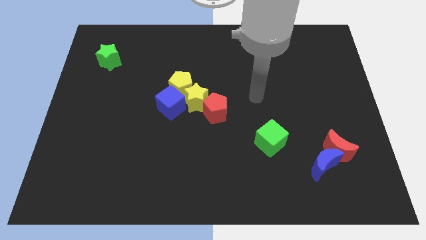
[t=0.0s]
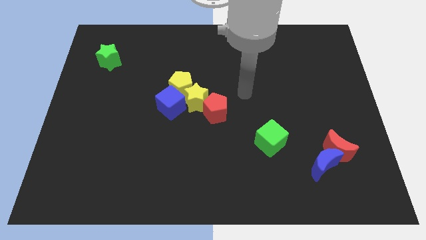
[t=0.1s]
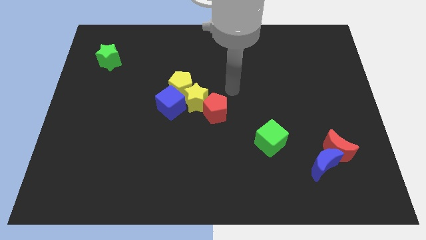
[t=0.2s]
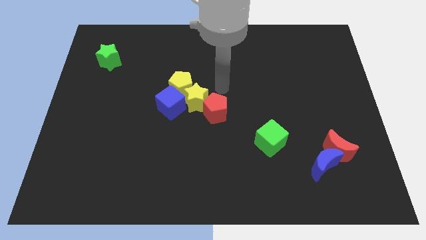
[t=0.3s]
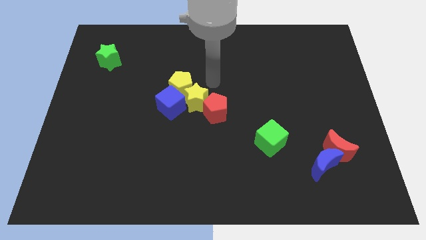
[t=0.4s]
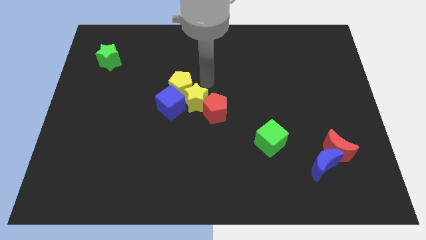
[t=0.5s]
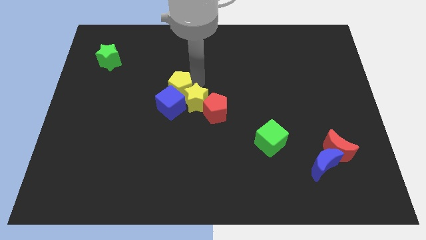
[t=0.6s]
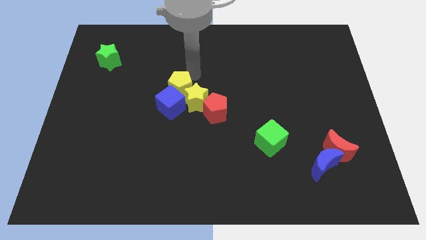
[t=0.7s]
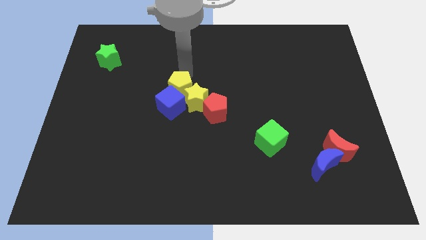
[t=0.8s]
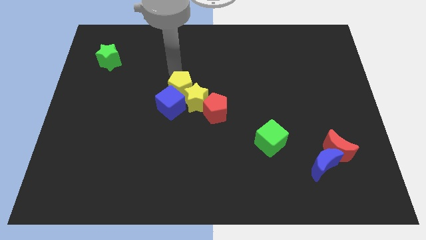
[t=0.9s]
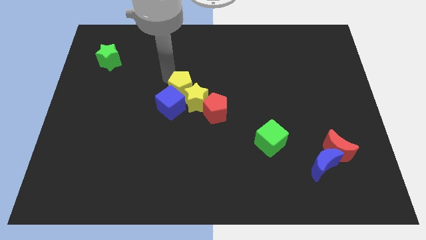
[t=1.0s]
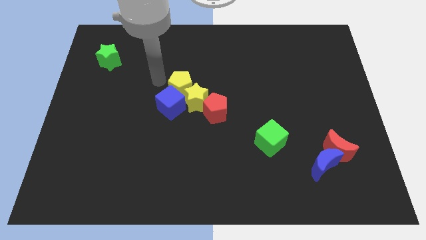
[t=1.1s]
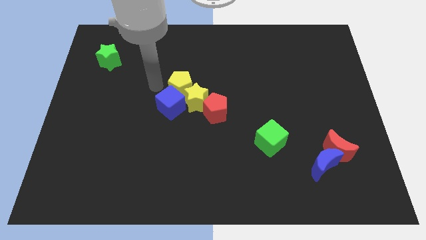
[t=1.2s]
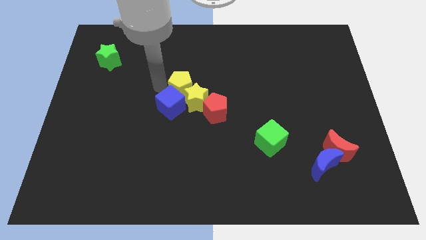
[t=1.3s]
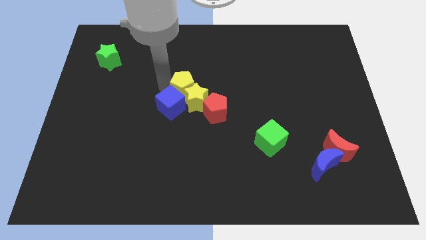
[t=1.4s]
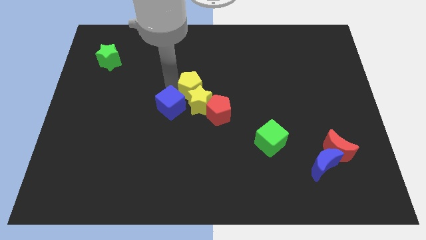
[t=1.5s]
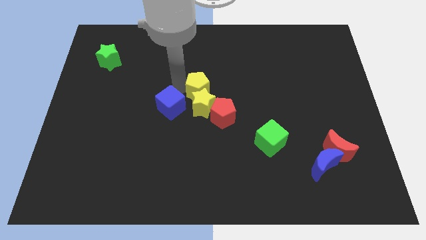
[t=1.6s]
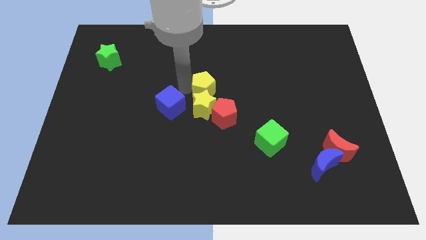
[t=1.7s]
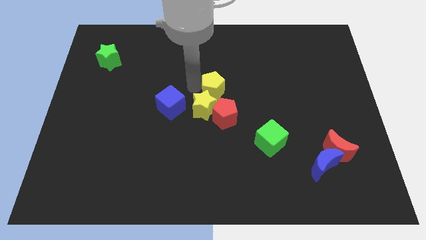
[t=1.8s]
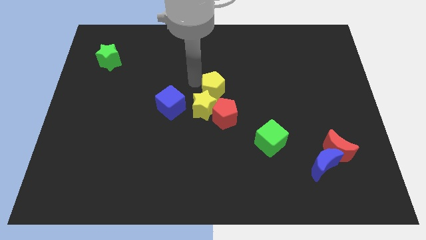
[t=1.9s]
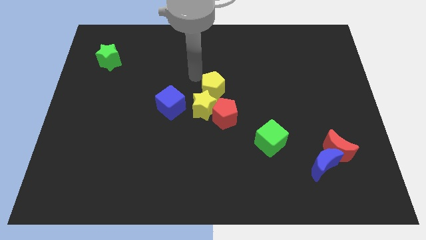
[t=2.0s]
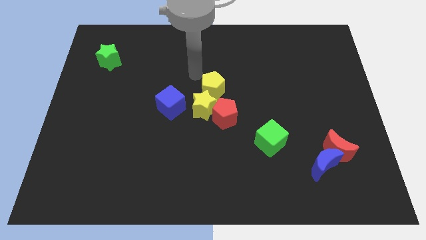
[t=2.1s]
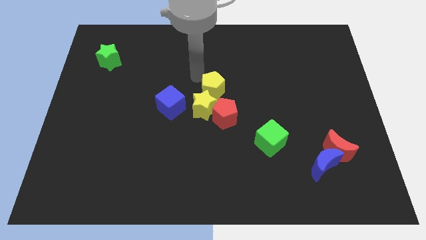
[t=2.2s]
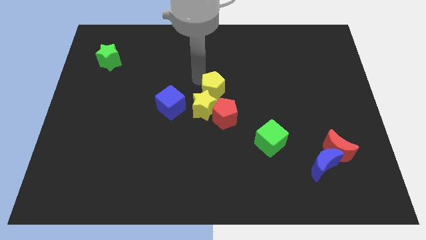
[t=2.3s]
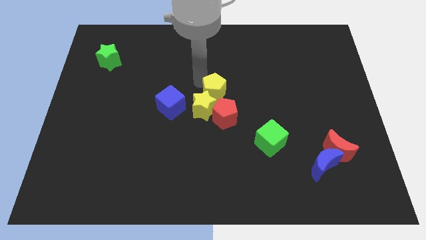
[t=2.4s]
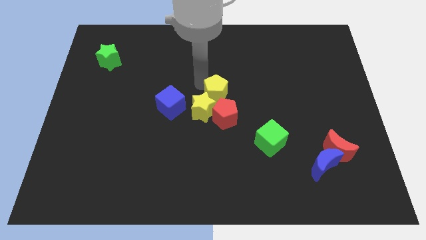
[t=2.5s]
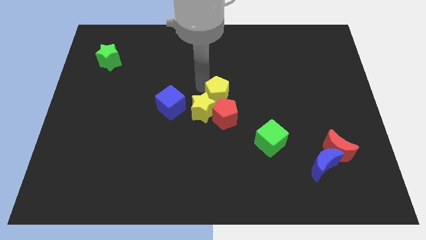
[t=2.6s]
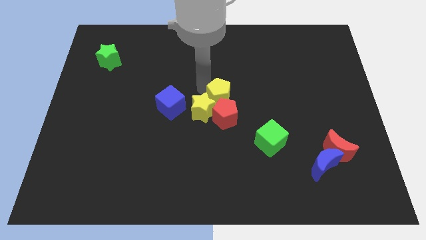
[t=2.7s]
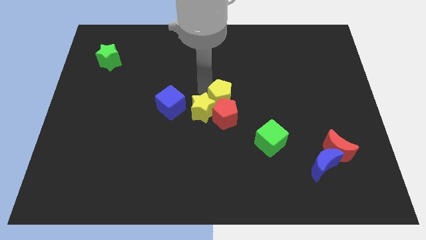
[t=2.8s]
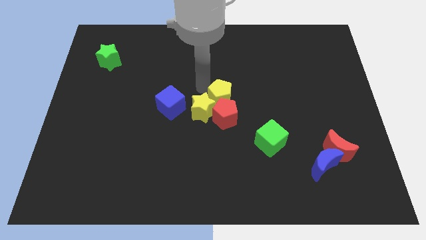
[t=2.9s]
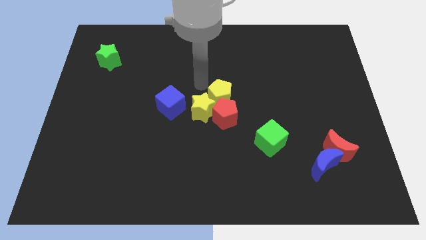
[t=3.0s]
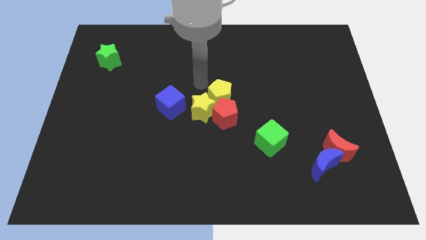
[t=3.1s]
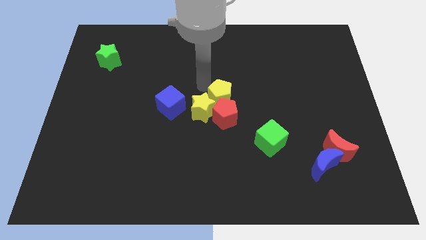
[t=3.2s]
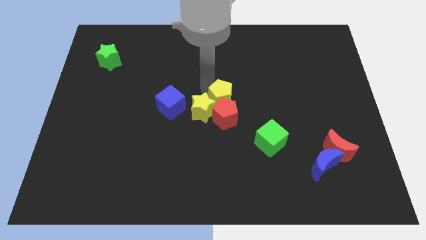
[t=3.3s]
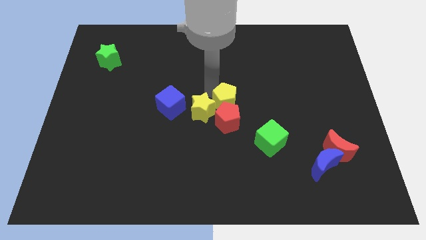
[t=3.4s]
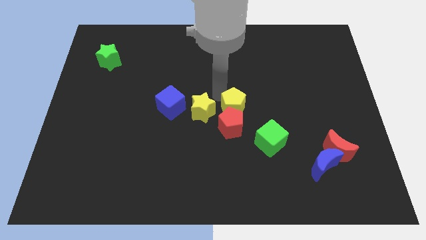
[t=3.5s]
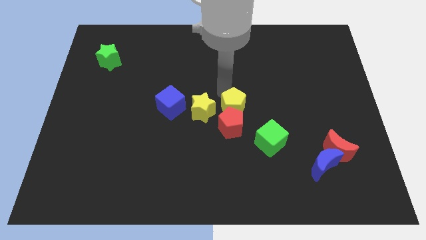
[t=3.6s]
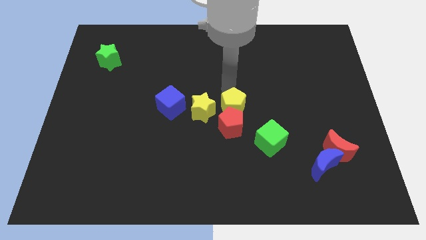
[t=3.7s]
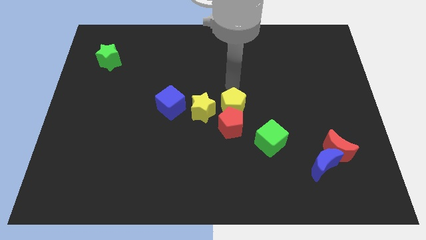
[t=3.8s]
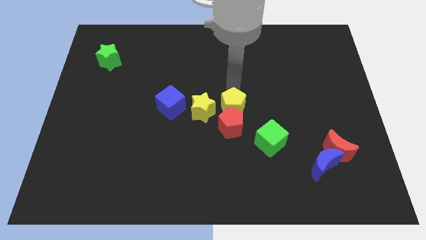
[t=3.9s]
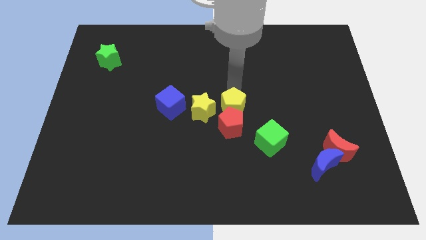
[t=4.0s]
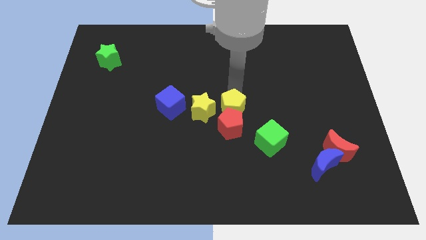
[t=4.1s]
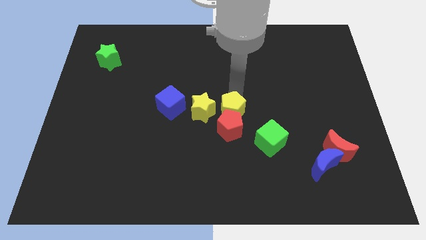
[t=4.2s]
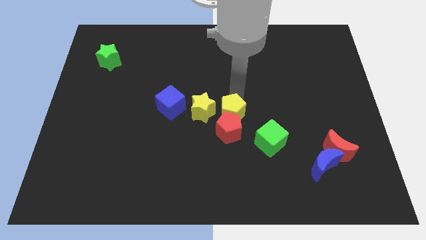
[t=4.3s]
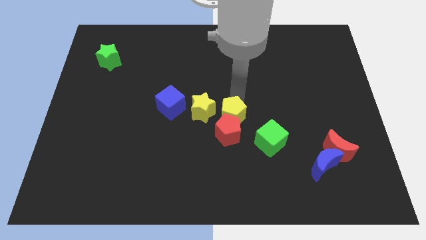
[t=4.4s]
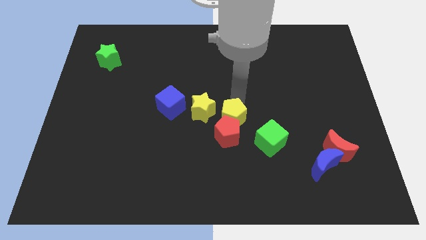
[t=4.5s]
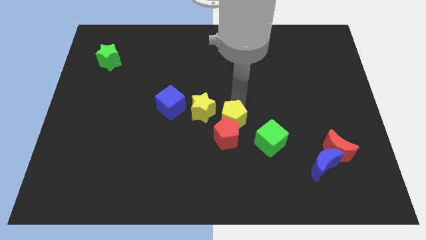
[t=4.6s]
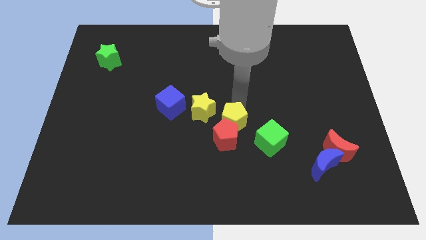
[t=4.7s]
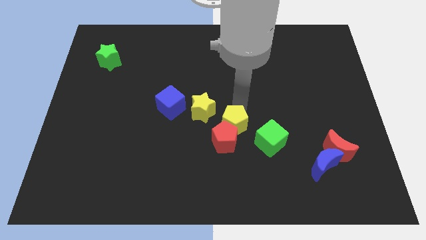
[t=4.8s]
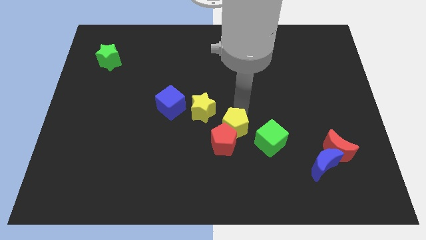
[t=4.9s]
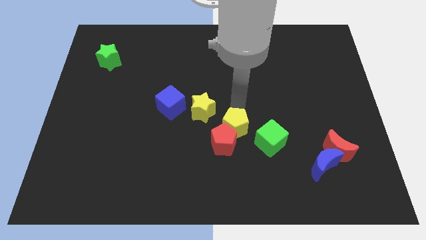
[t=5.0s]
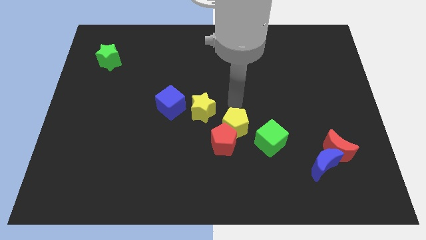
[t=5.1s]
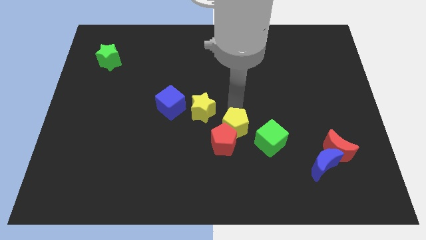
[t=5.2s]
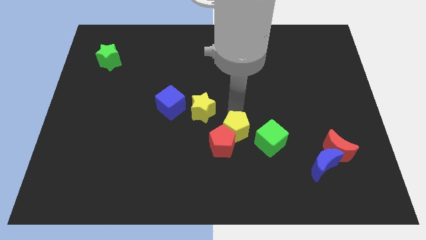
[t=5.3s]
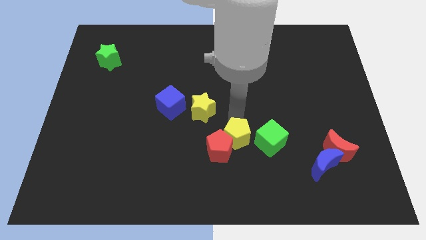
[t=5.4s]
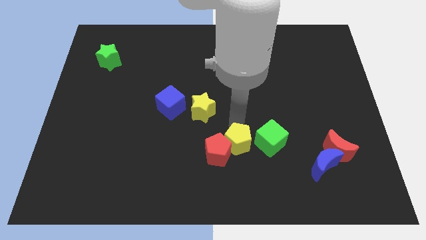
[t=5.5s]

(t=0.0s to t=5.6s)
push the yellow pentagon down and then right

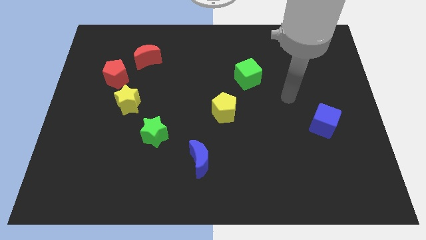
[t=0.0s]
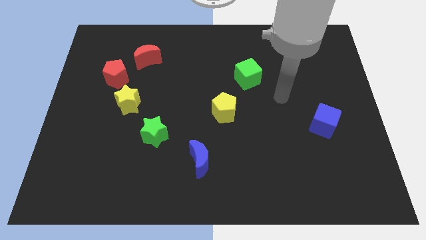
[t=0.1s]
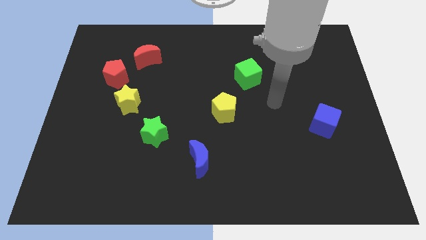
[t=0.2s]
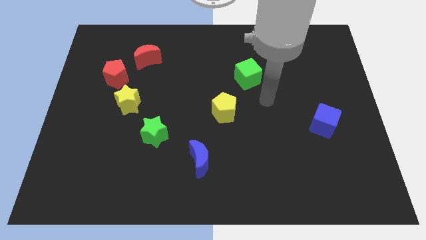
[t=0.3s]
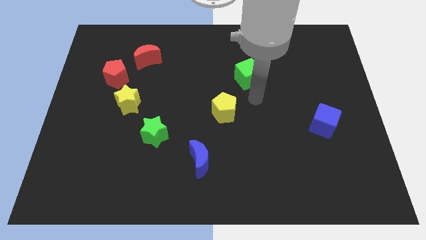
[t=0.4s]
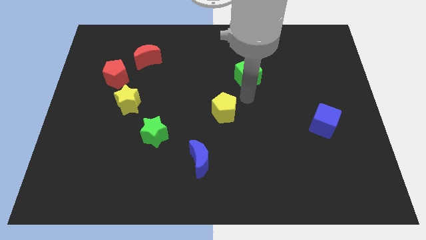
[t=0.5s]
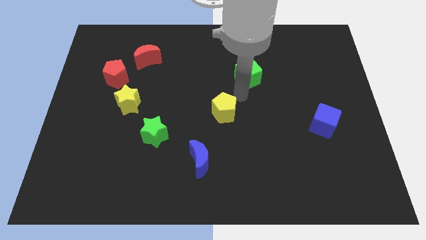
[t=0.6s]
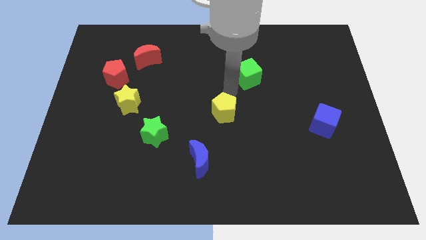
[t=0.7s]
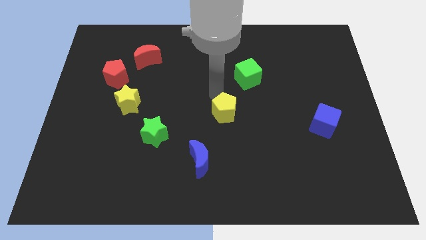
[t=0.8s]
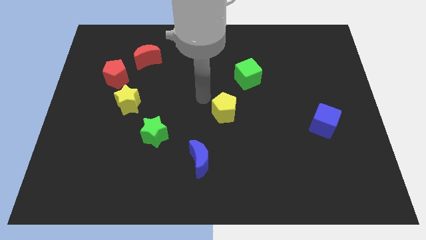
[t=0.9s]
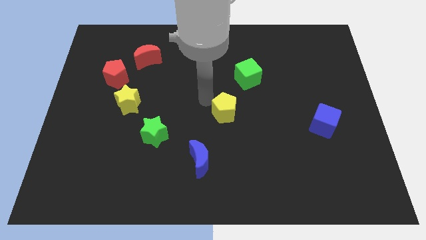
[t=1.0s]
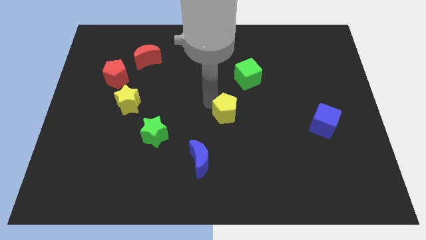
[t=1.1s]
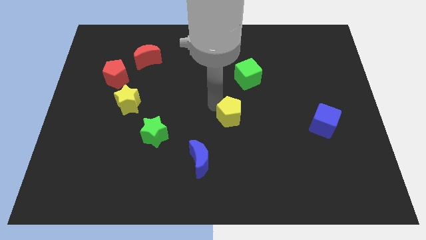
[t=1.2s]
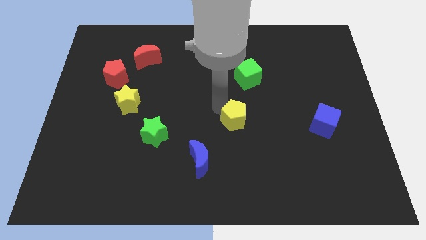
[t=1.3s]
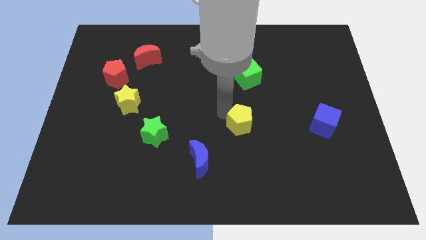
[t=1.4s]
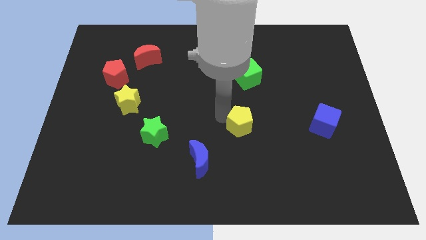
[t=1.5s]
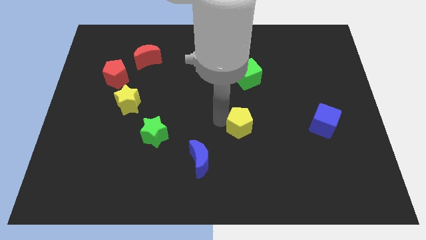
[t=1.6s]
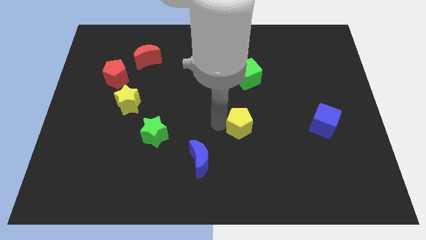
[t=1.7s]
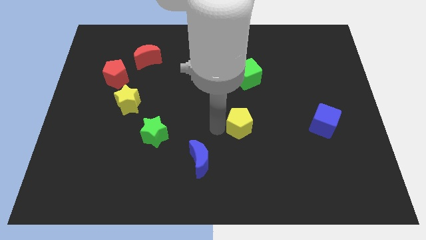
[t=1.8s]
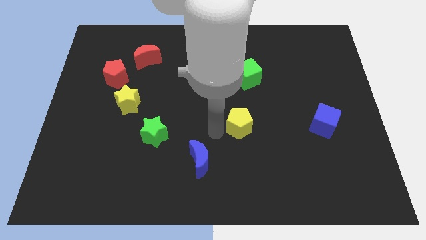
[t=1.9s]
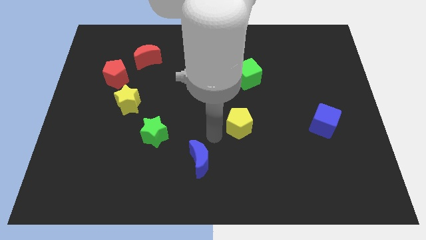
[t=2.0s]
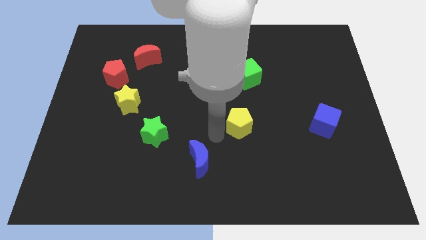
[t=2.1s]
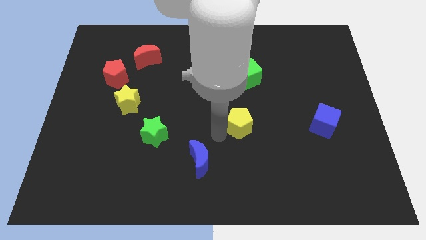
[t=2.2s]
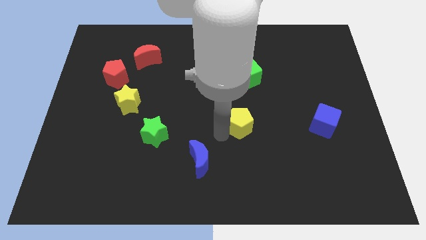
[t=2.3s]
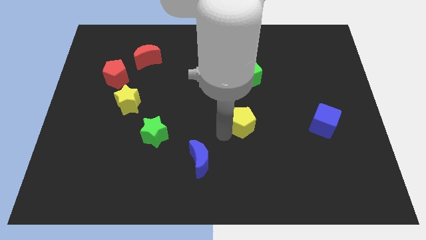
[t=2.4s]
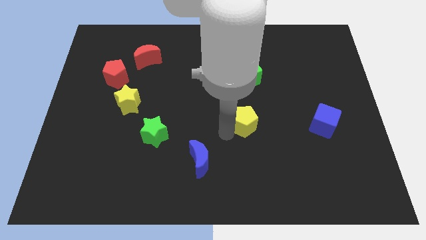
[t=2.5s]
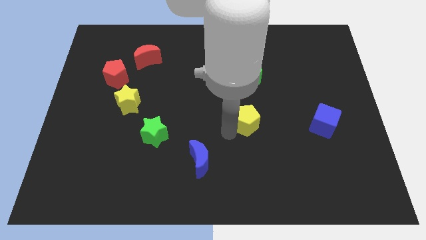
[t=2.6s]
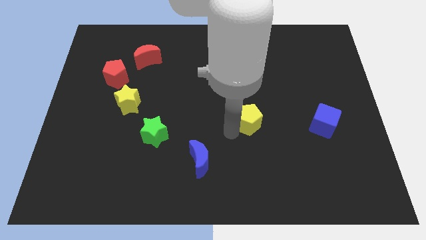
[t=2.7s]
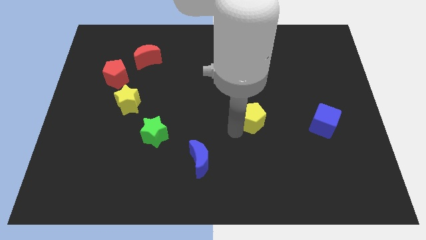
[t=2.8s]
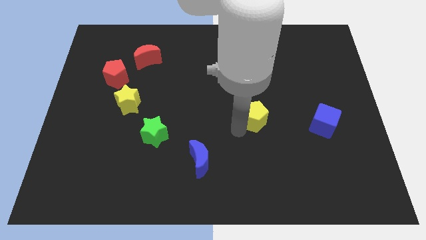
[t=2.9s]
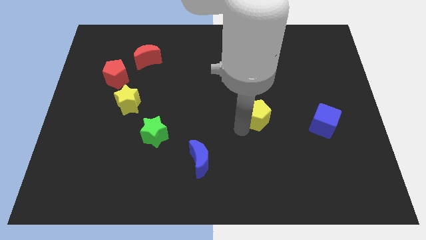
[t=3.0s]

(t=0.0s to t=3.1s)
slide the yellow pentagon to the right slightly
